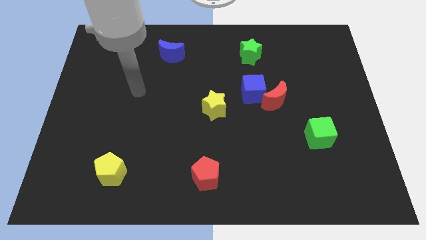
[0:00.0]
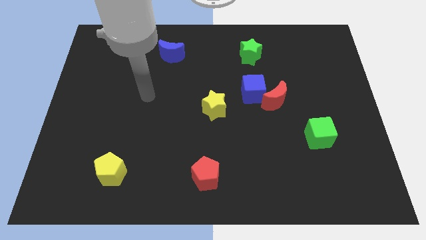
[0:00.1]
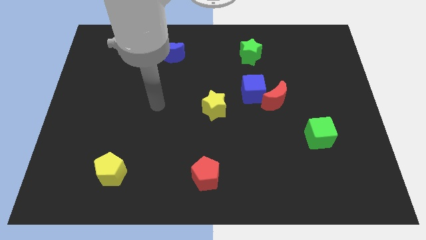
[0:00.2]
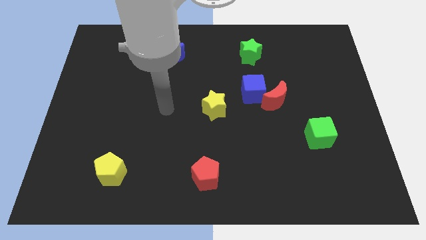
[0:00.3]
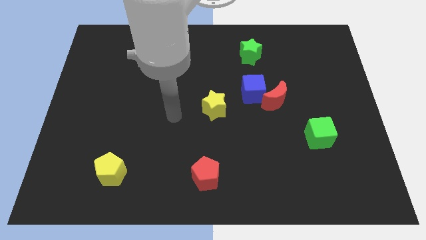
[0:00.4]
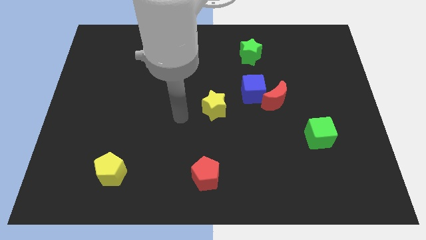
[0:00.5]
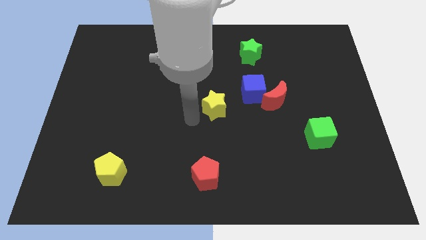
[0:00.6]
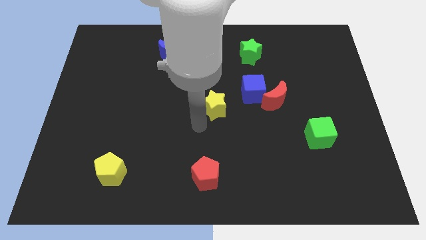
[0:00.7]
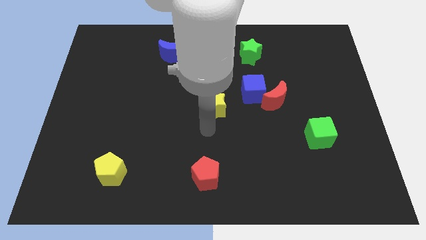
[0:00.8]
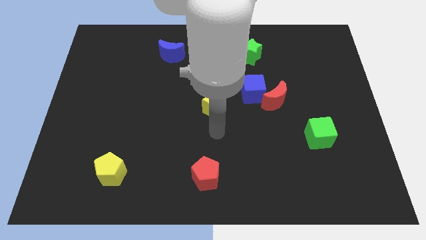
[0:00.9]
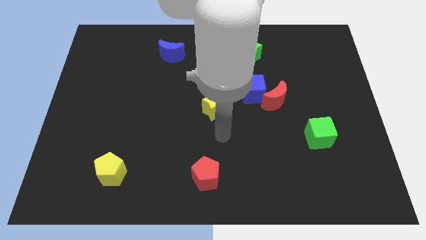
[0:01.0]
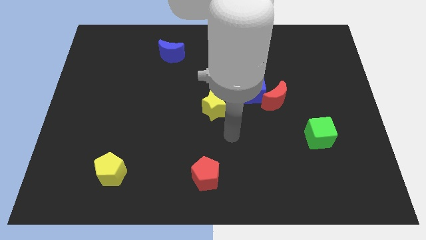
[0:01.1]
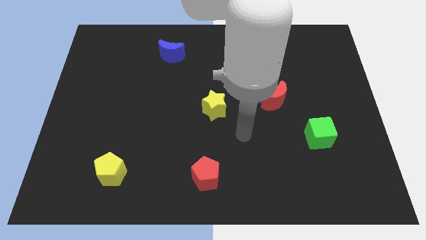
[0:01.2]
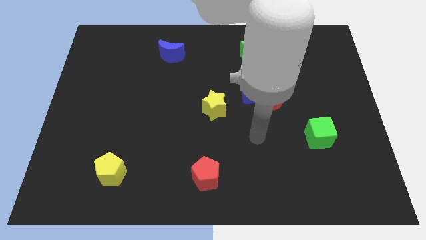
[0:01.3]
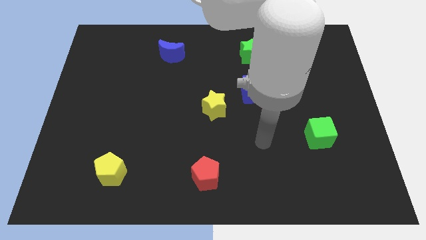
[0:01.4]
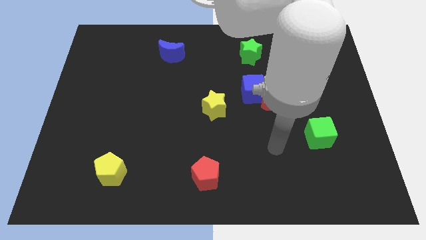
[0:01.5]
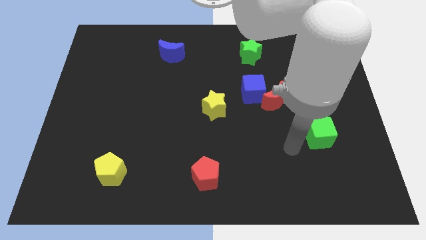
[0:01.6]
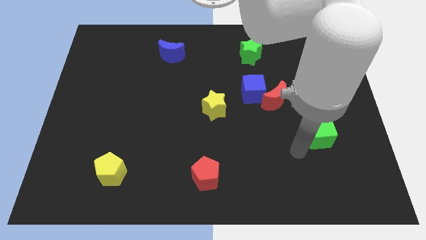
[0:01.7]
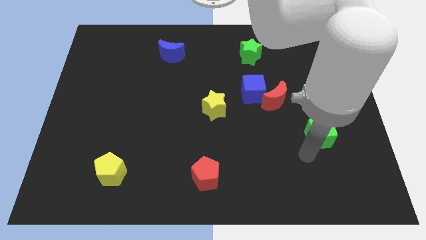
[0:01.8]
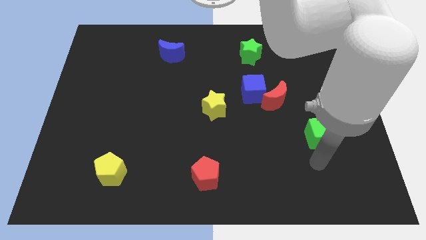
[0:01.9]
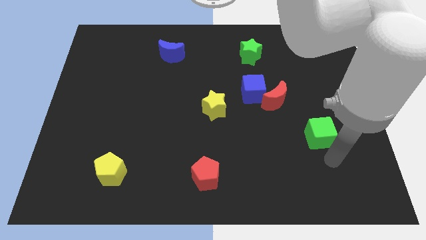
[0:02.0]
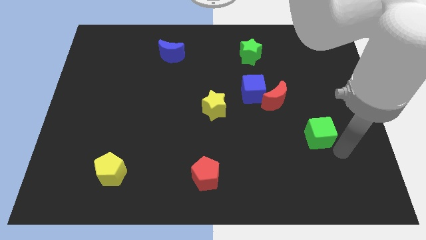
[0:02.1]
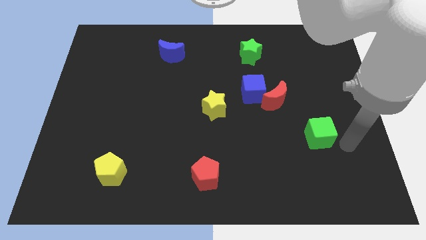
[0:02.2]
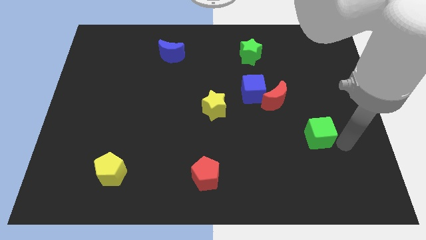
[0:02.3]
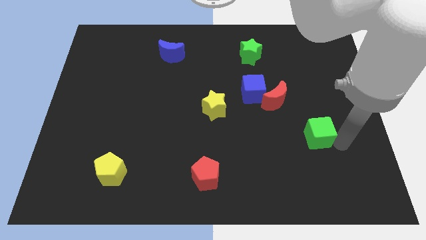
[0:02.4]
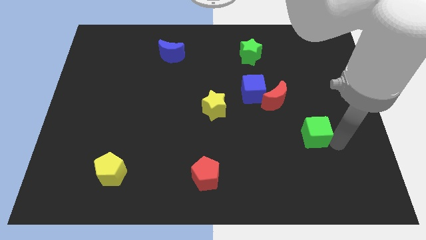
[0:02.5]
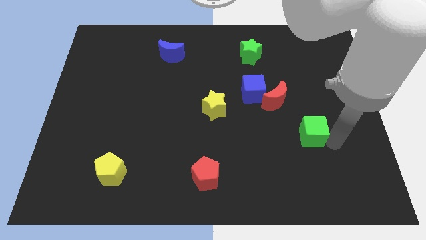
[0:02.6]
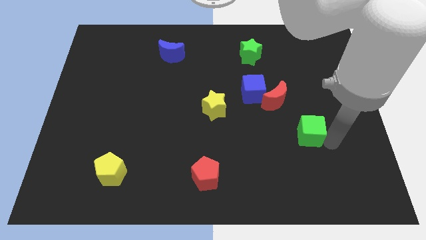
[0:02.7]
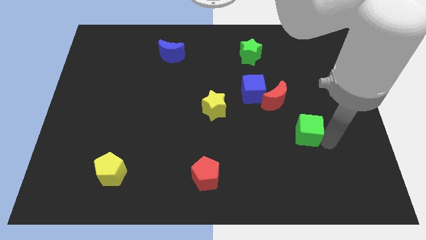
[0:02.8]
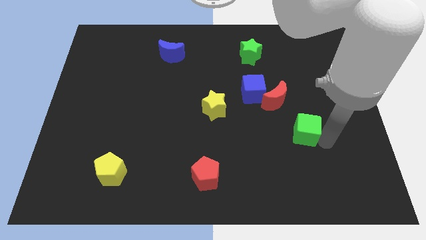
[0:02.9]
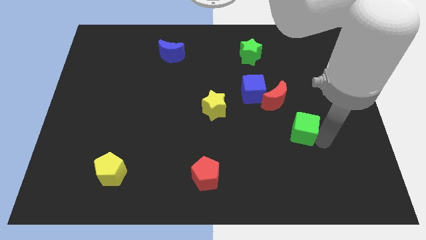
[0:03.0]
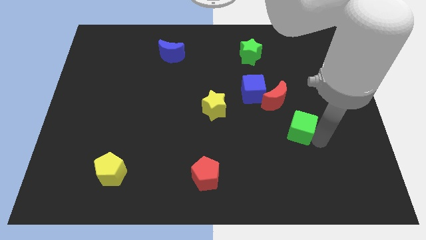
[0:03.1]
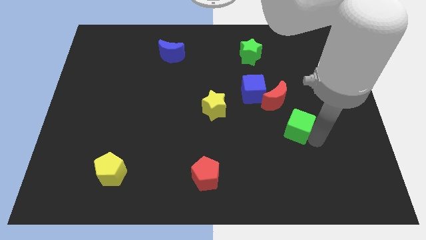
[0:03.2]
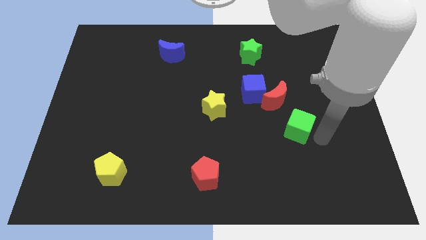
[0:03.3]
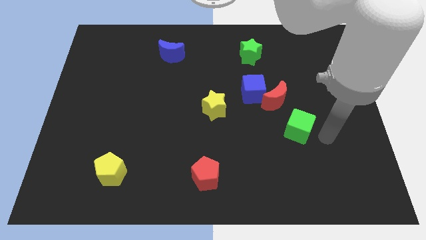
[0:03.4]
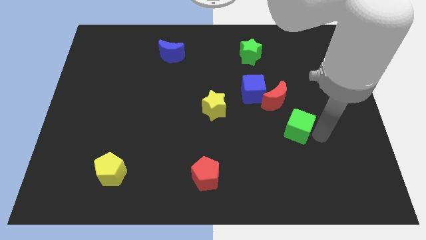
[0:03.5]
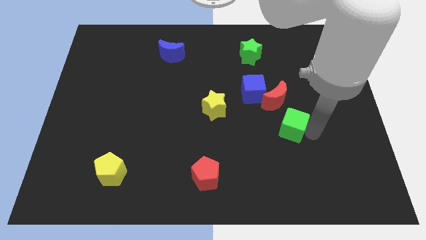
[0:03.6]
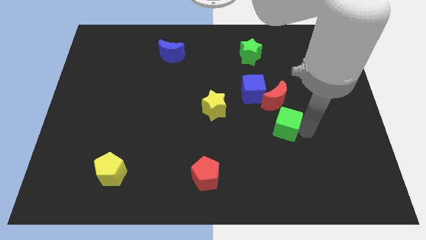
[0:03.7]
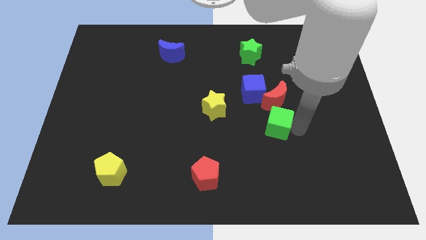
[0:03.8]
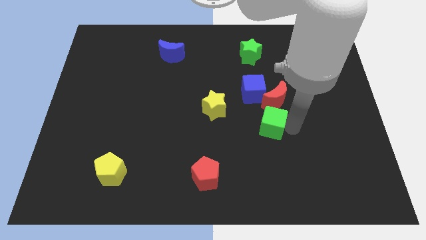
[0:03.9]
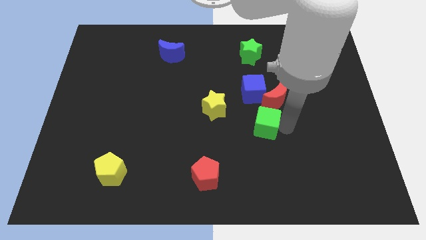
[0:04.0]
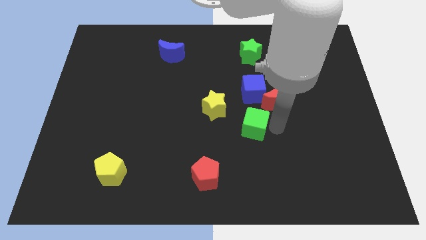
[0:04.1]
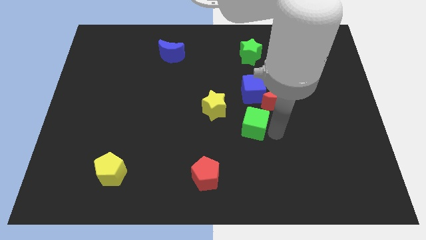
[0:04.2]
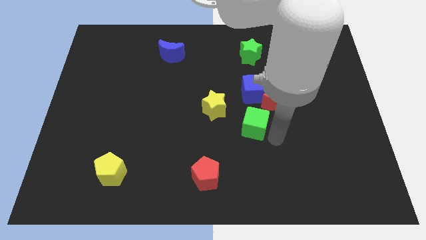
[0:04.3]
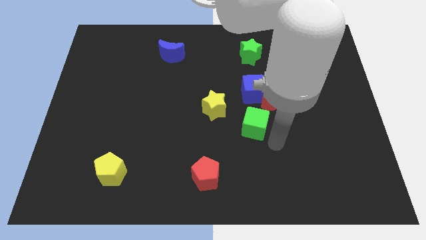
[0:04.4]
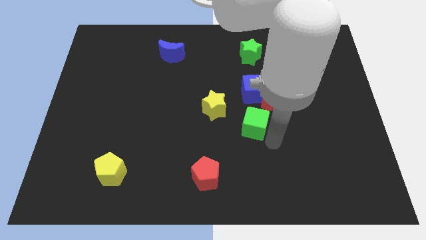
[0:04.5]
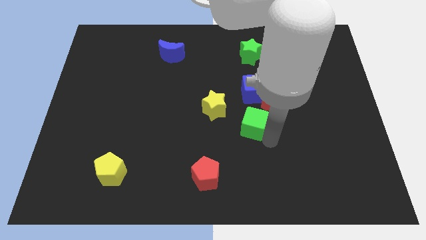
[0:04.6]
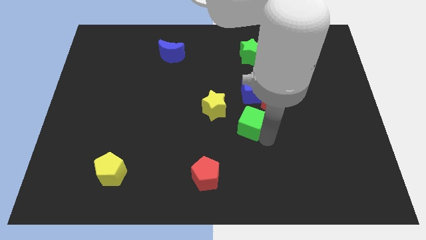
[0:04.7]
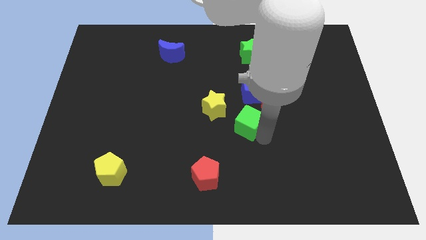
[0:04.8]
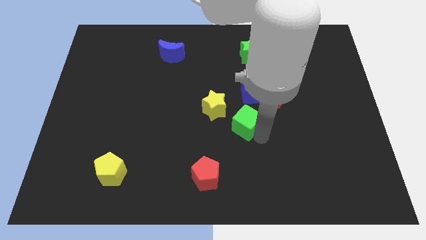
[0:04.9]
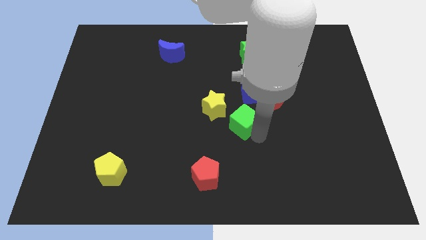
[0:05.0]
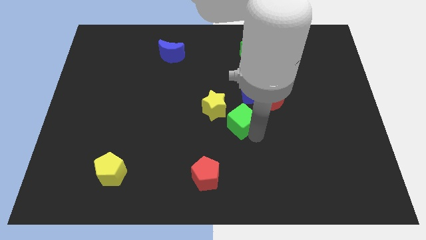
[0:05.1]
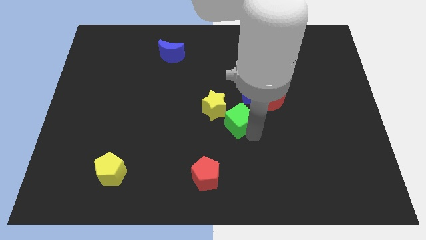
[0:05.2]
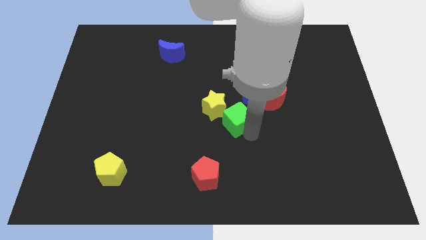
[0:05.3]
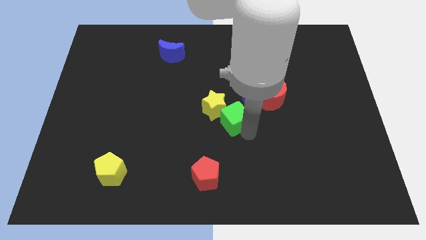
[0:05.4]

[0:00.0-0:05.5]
move the green cube close to the yellow star

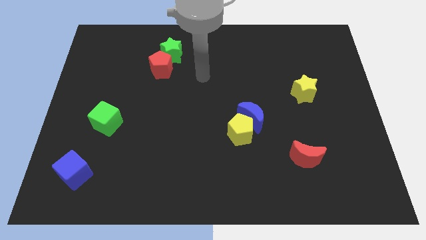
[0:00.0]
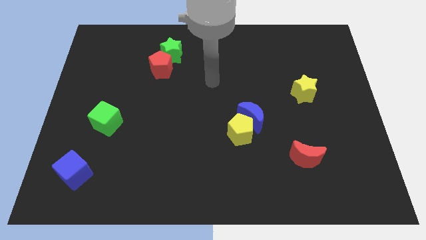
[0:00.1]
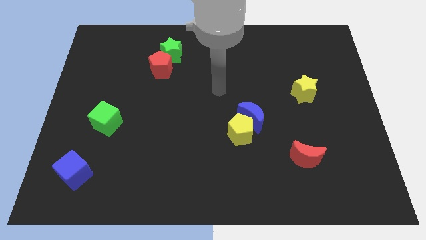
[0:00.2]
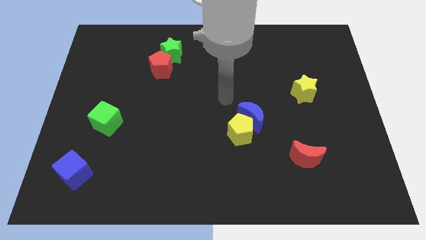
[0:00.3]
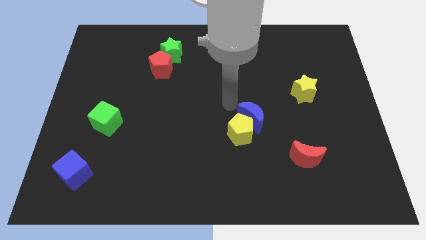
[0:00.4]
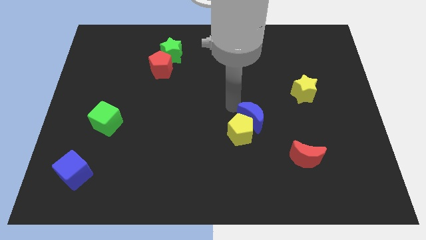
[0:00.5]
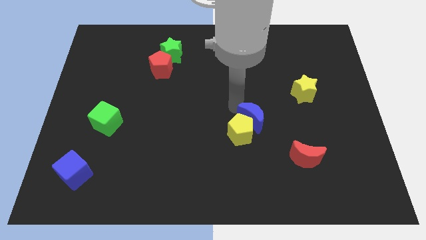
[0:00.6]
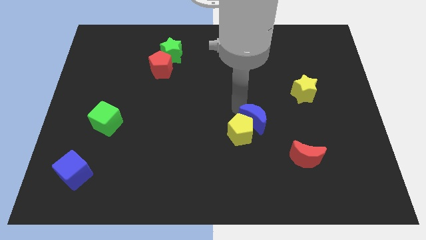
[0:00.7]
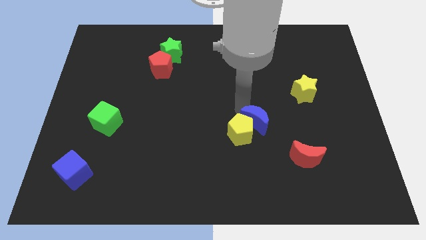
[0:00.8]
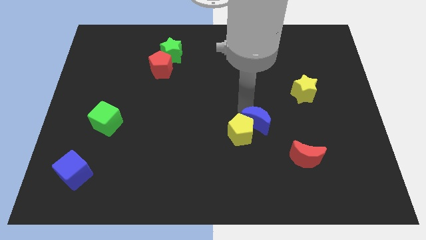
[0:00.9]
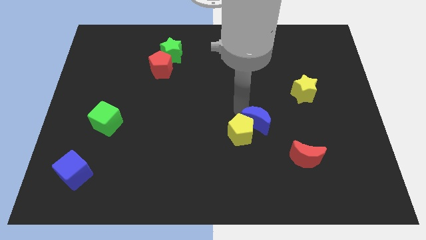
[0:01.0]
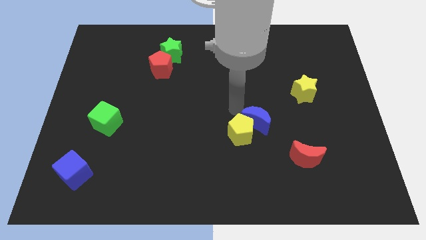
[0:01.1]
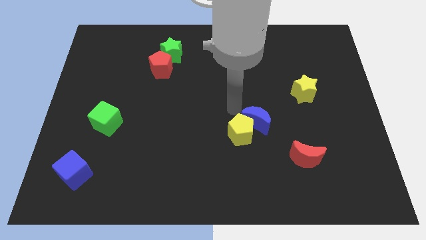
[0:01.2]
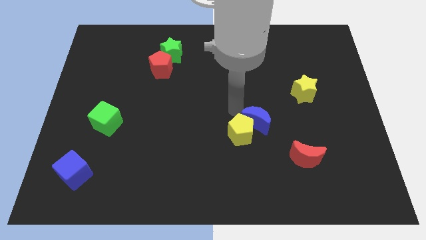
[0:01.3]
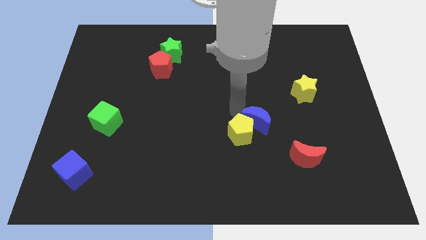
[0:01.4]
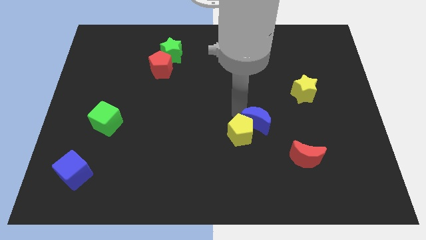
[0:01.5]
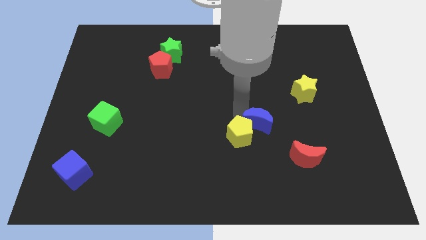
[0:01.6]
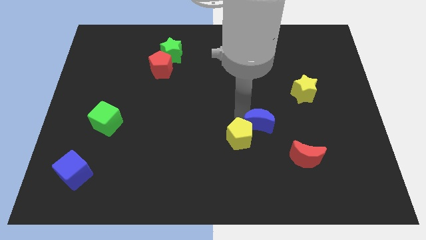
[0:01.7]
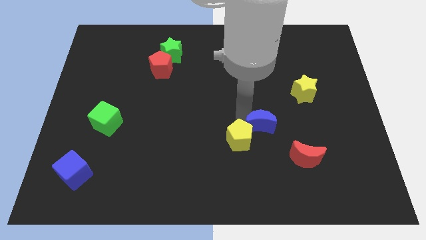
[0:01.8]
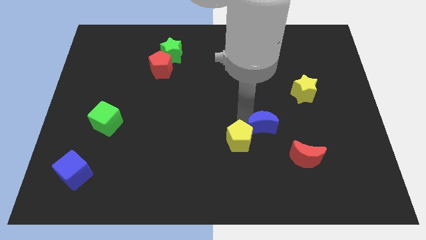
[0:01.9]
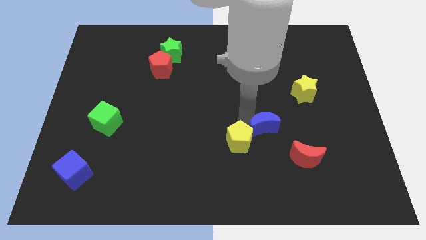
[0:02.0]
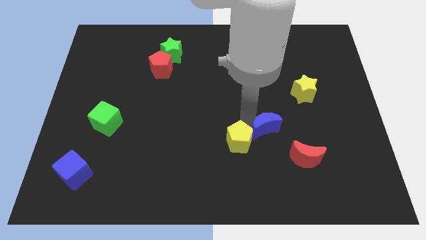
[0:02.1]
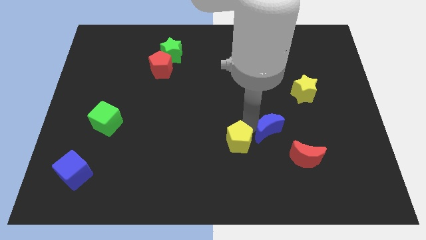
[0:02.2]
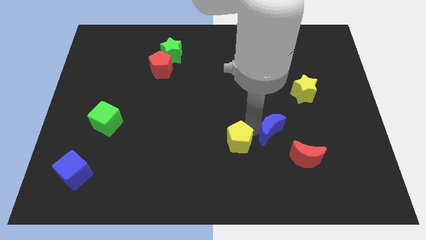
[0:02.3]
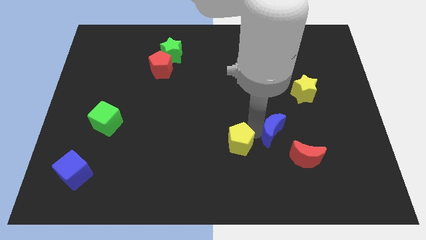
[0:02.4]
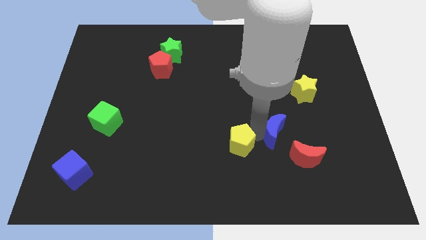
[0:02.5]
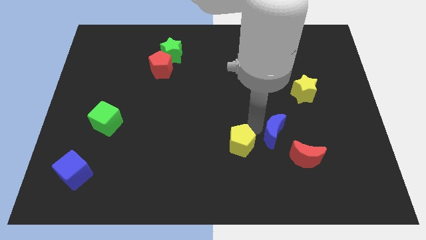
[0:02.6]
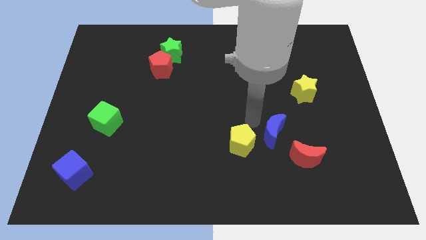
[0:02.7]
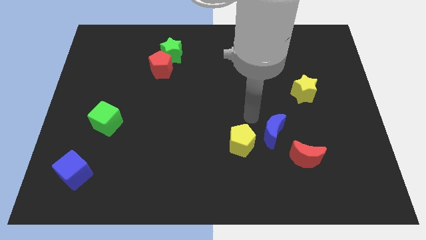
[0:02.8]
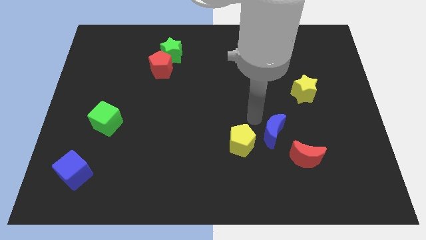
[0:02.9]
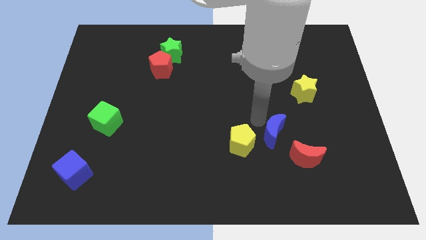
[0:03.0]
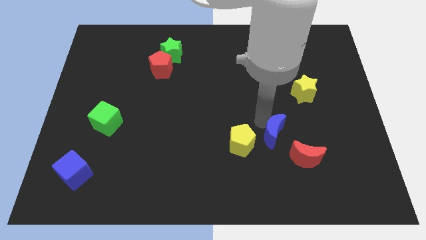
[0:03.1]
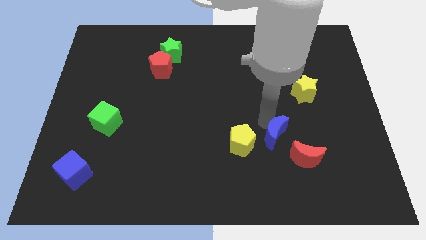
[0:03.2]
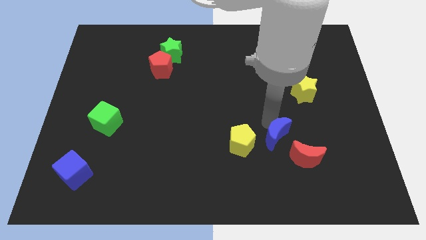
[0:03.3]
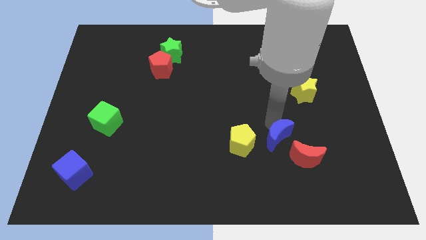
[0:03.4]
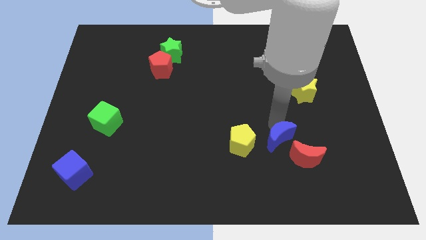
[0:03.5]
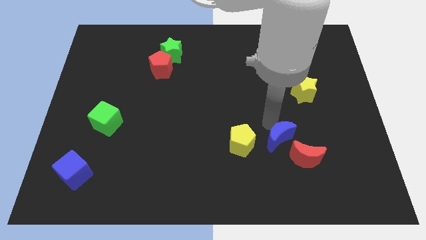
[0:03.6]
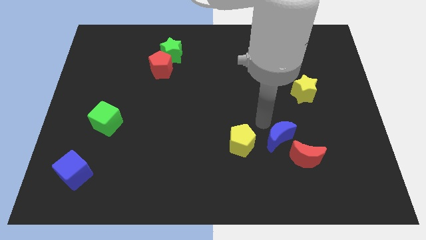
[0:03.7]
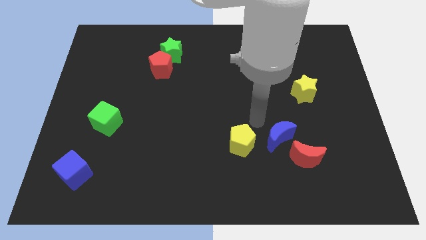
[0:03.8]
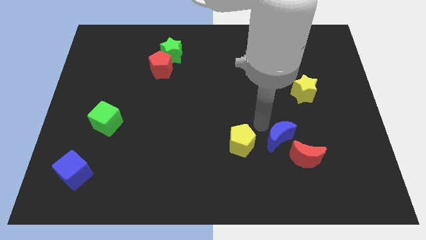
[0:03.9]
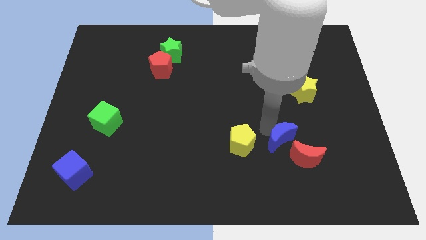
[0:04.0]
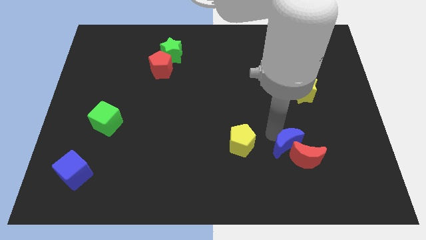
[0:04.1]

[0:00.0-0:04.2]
put the blue moon close to the red moon
